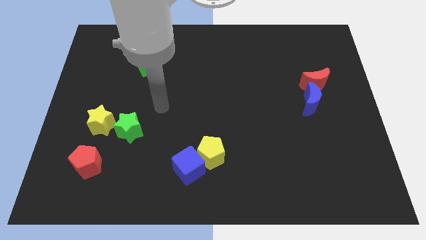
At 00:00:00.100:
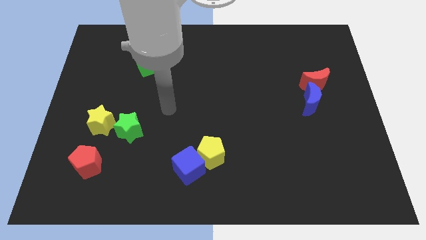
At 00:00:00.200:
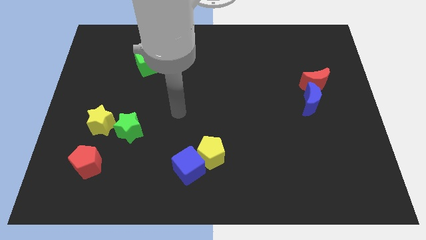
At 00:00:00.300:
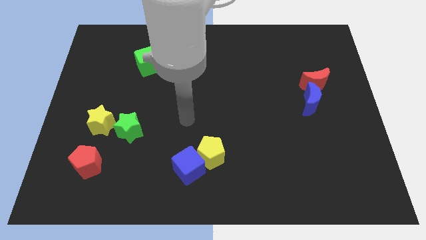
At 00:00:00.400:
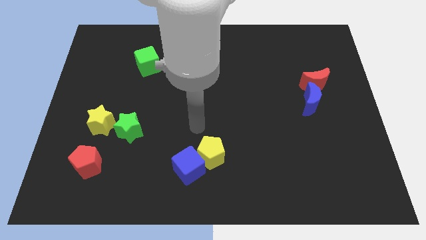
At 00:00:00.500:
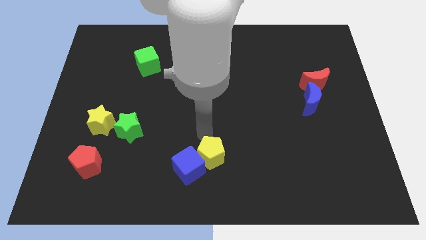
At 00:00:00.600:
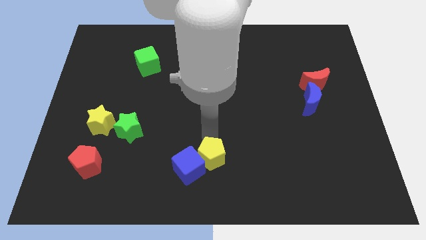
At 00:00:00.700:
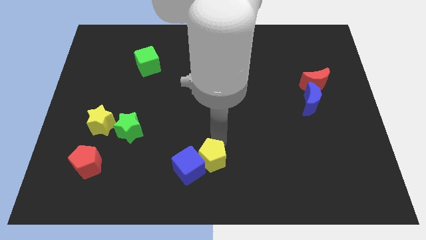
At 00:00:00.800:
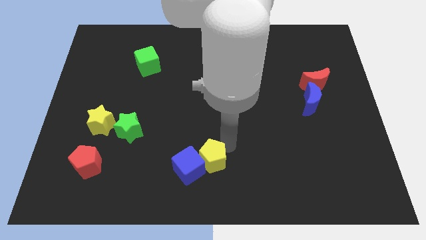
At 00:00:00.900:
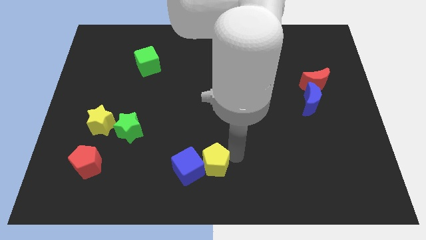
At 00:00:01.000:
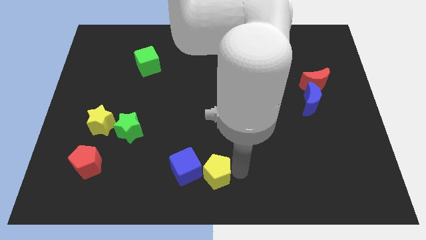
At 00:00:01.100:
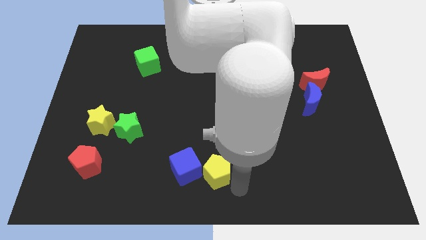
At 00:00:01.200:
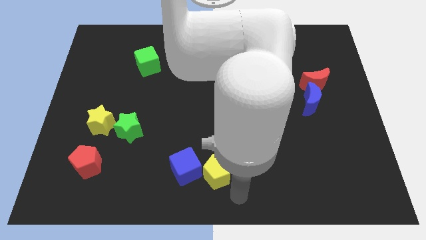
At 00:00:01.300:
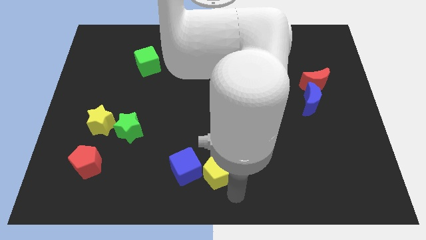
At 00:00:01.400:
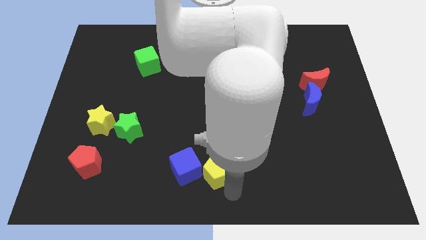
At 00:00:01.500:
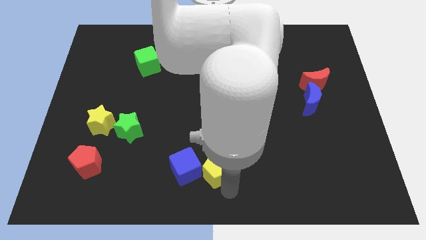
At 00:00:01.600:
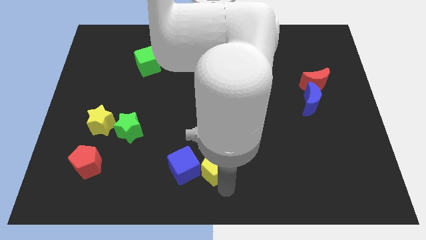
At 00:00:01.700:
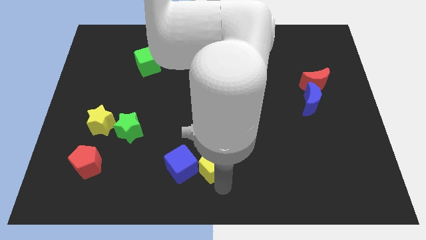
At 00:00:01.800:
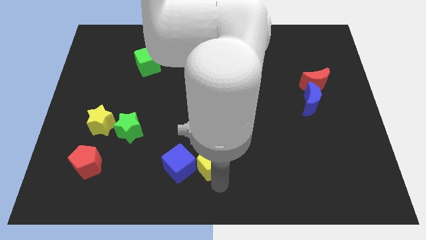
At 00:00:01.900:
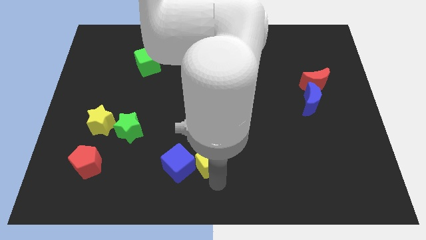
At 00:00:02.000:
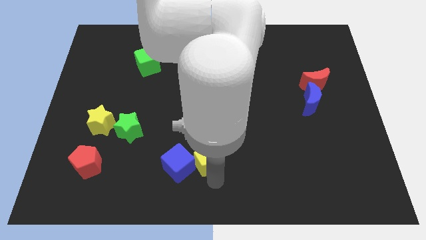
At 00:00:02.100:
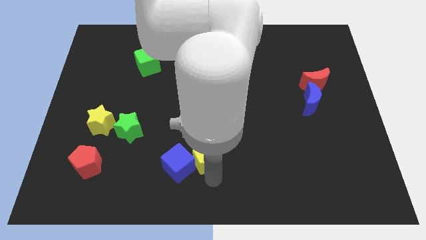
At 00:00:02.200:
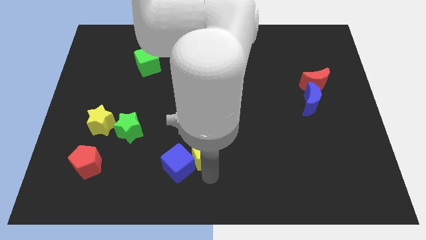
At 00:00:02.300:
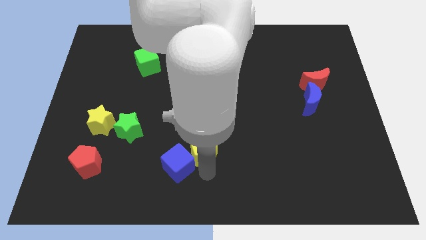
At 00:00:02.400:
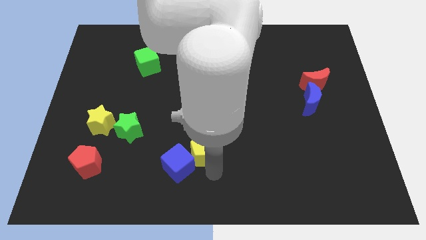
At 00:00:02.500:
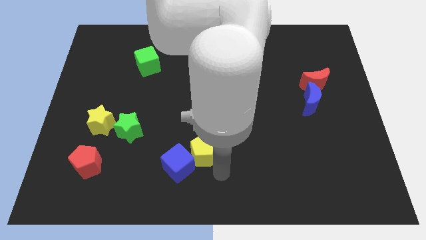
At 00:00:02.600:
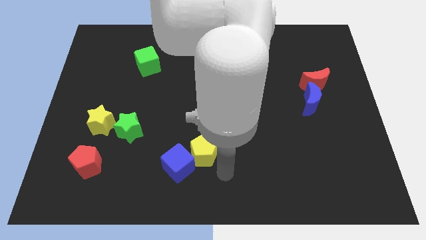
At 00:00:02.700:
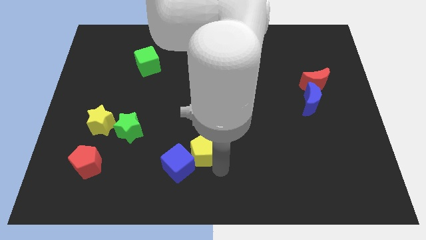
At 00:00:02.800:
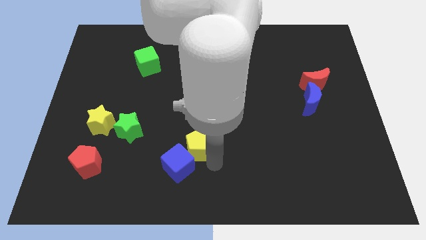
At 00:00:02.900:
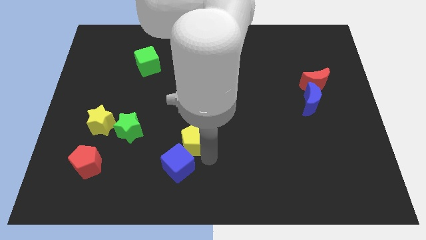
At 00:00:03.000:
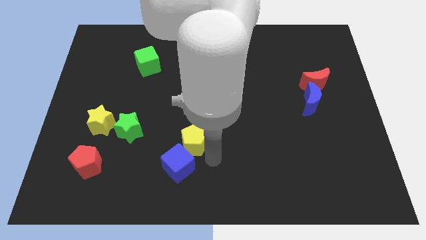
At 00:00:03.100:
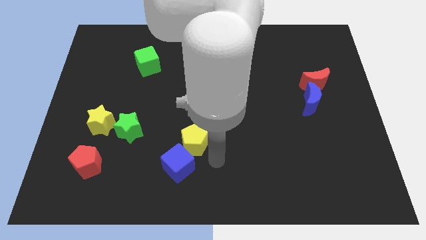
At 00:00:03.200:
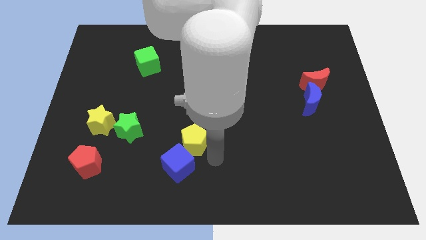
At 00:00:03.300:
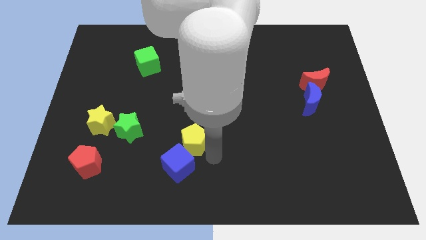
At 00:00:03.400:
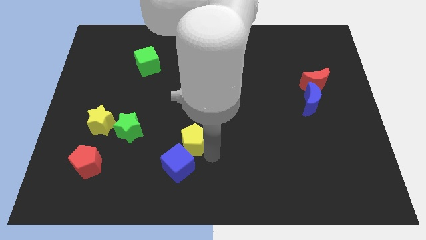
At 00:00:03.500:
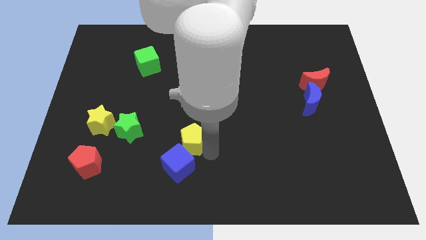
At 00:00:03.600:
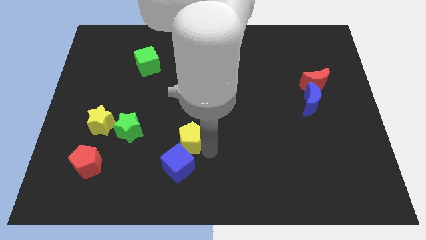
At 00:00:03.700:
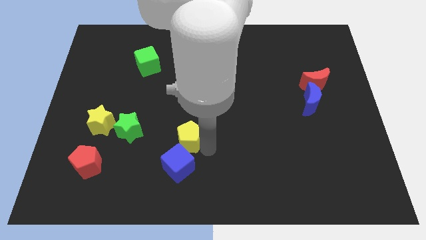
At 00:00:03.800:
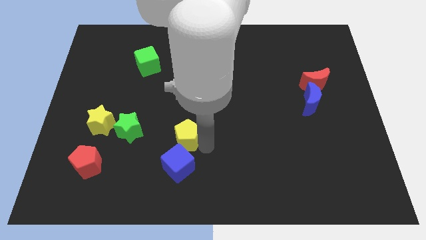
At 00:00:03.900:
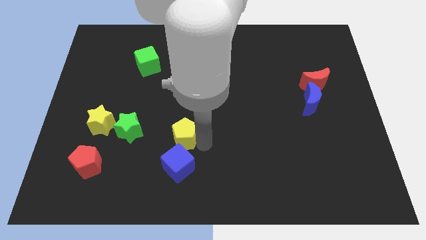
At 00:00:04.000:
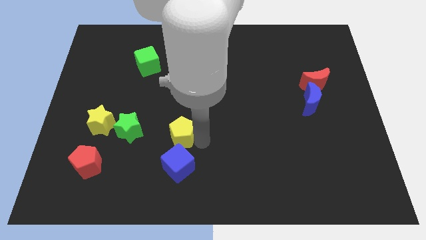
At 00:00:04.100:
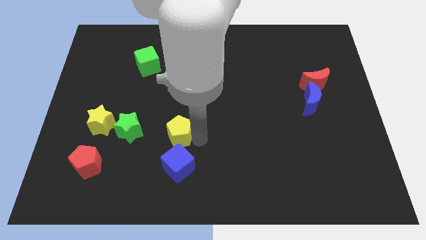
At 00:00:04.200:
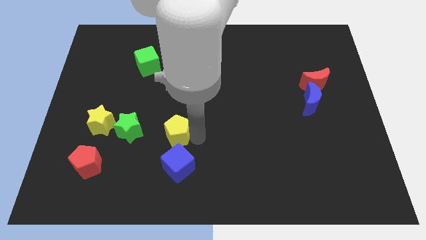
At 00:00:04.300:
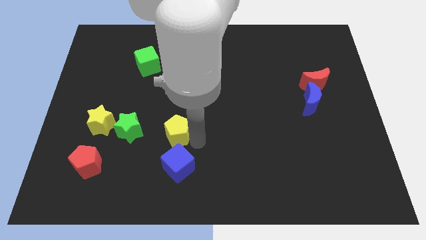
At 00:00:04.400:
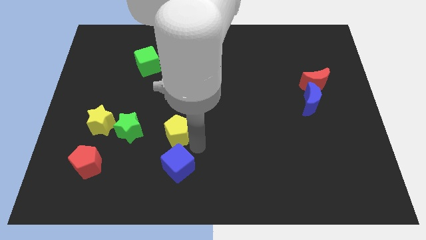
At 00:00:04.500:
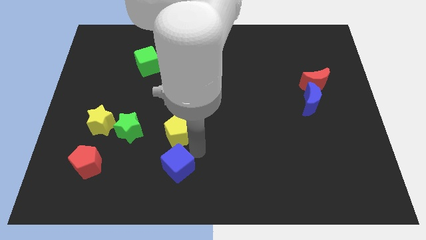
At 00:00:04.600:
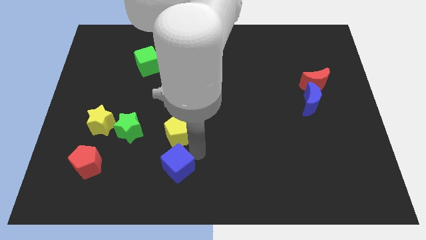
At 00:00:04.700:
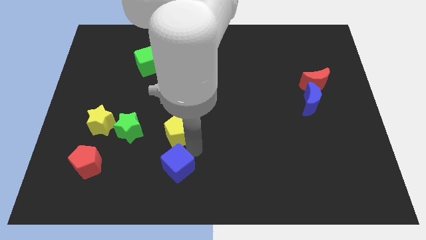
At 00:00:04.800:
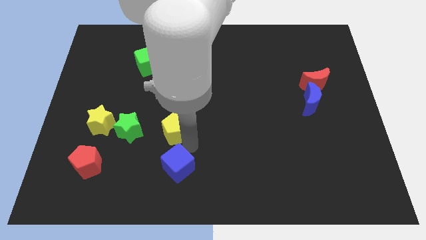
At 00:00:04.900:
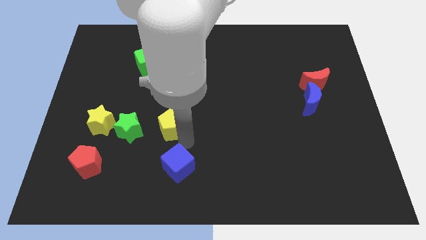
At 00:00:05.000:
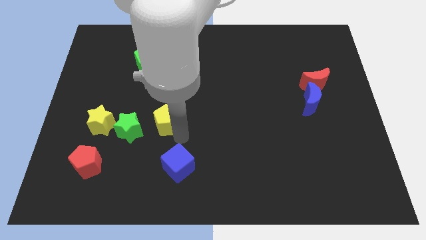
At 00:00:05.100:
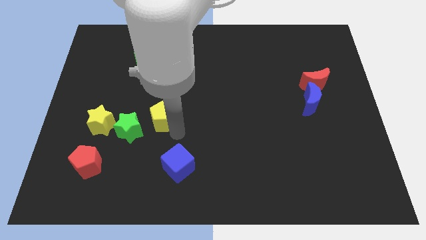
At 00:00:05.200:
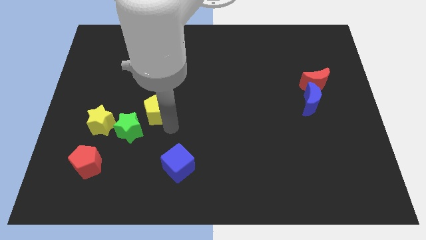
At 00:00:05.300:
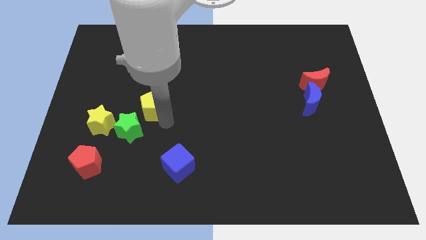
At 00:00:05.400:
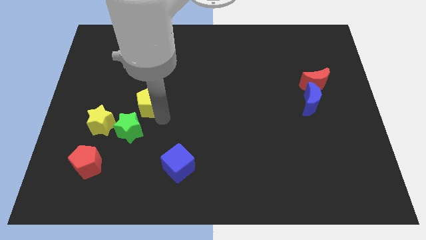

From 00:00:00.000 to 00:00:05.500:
move the yellow pentagon up and to the left

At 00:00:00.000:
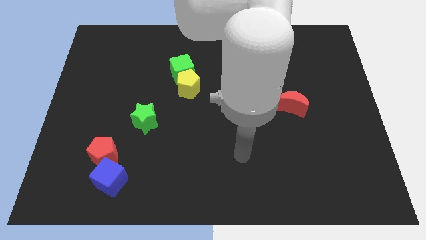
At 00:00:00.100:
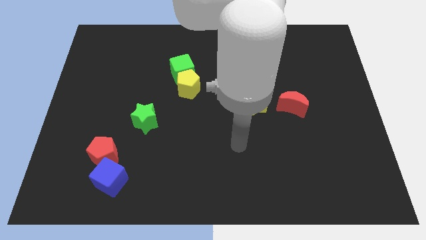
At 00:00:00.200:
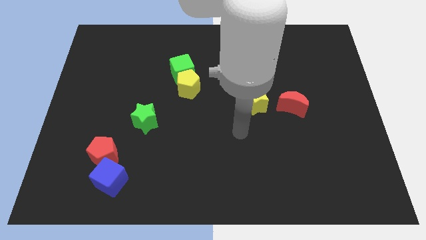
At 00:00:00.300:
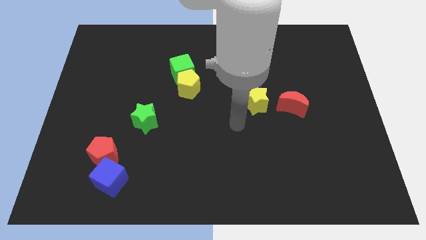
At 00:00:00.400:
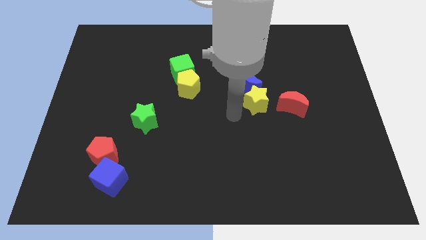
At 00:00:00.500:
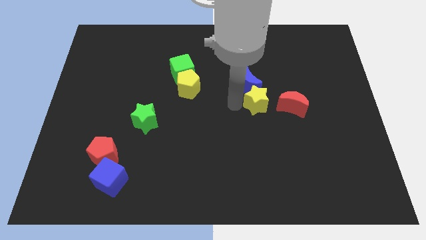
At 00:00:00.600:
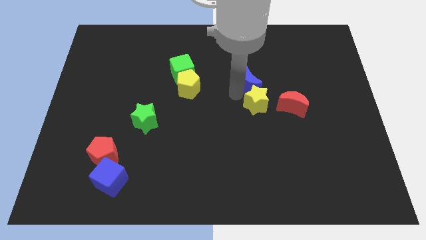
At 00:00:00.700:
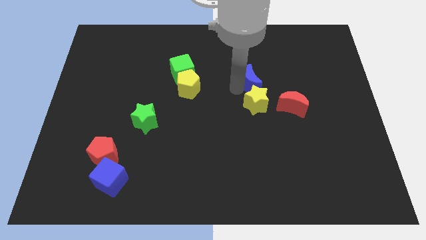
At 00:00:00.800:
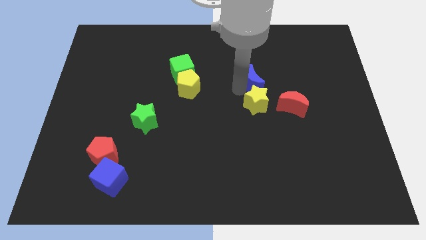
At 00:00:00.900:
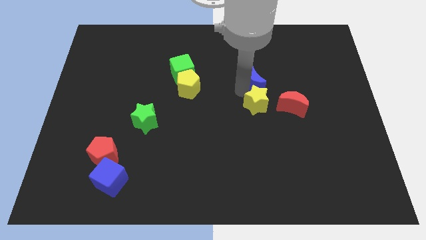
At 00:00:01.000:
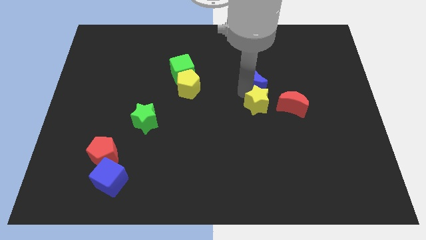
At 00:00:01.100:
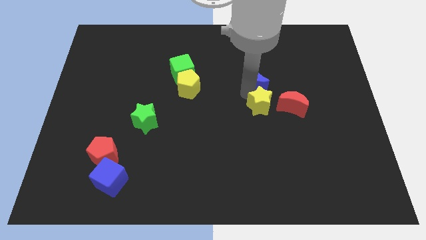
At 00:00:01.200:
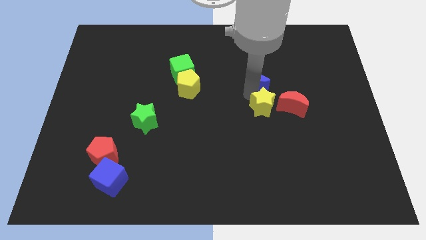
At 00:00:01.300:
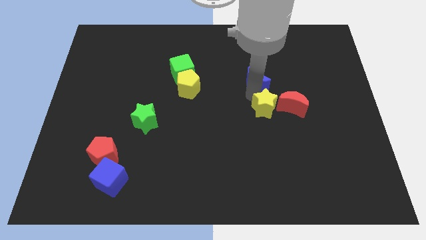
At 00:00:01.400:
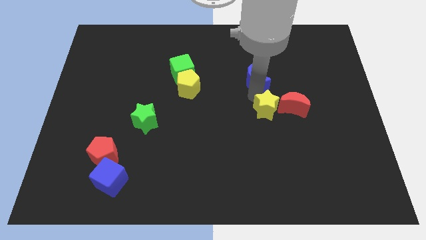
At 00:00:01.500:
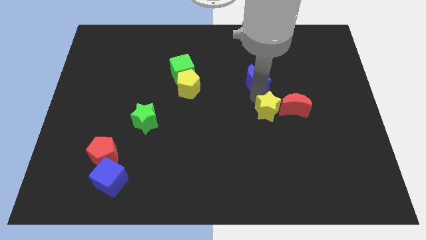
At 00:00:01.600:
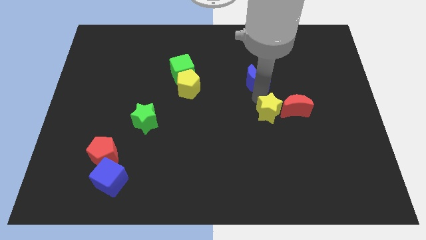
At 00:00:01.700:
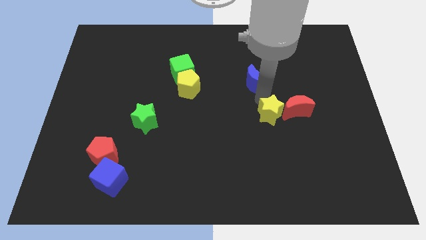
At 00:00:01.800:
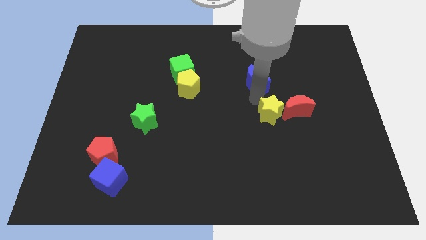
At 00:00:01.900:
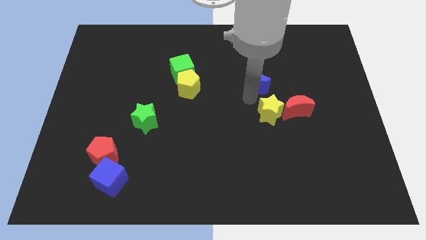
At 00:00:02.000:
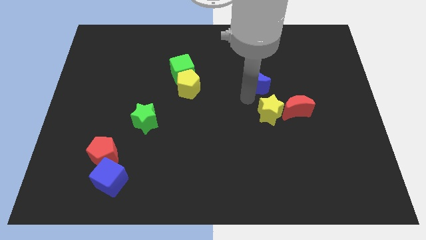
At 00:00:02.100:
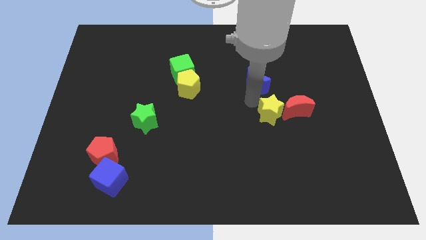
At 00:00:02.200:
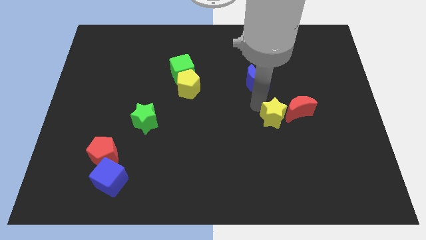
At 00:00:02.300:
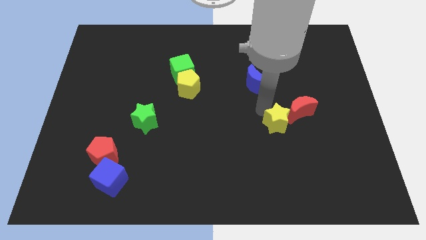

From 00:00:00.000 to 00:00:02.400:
slightly slide the yellow star downwards and then right
